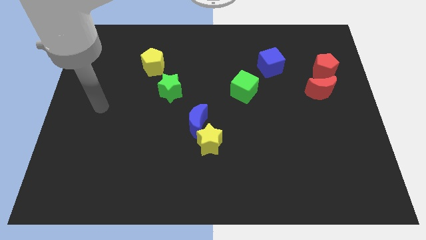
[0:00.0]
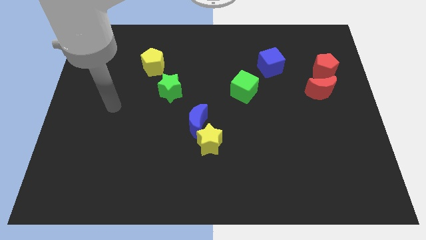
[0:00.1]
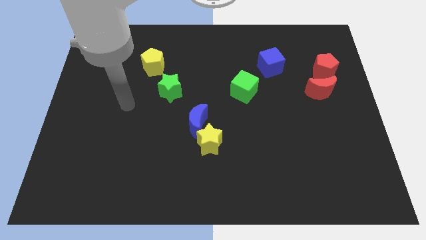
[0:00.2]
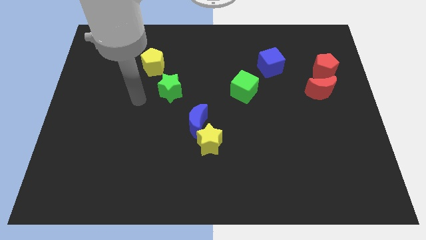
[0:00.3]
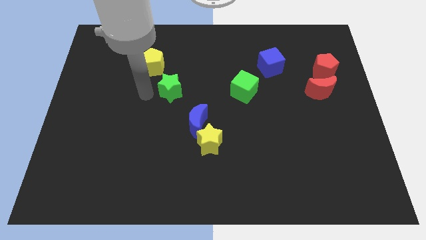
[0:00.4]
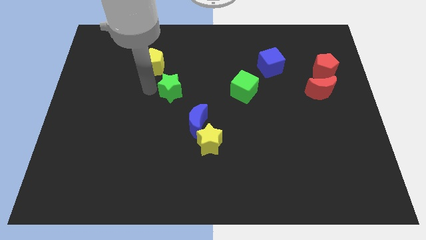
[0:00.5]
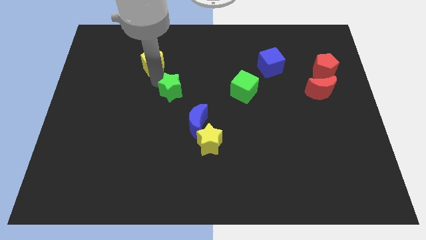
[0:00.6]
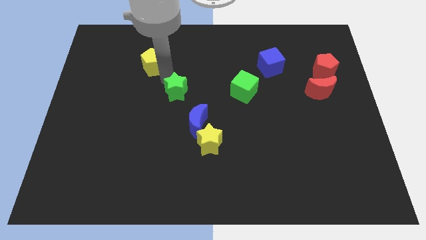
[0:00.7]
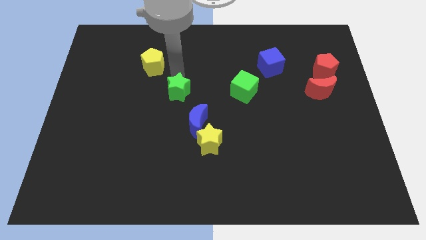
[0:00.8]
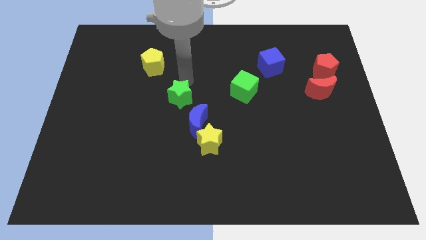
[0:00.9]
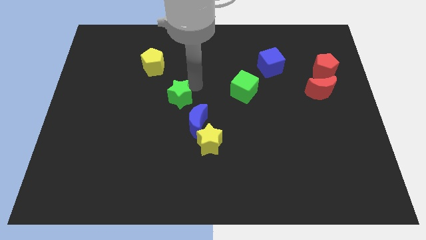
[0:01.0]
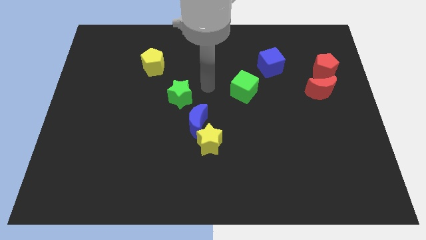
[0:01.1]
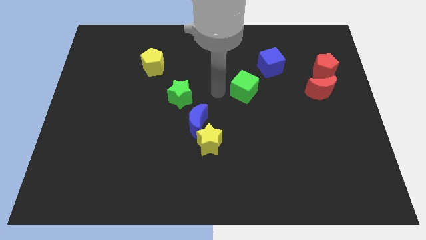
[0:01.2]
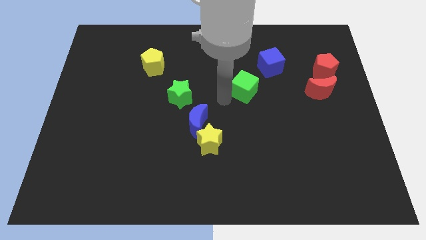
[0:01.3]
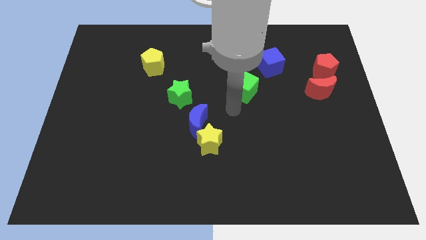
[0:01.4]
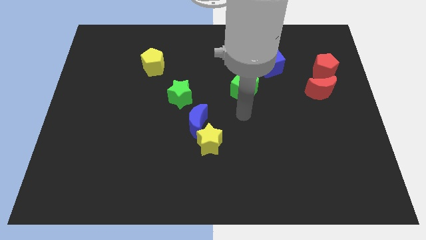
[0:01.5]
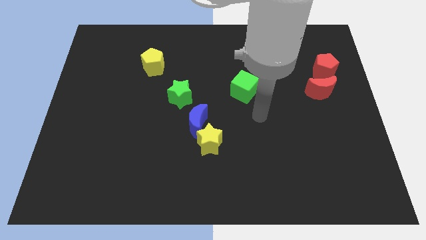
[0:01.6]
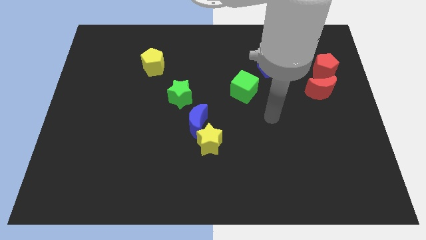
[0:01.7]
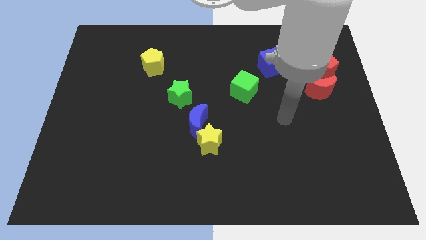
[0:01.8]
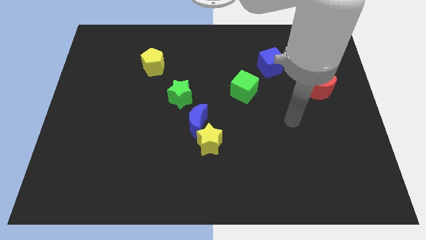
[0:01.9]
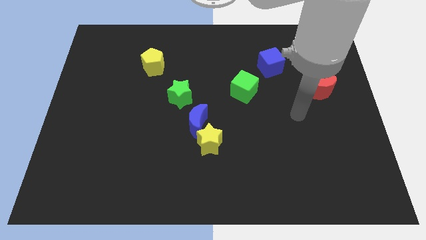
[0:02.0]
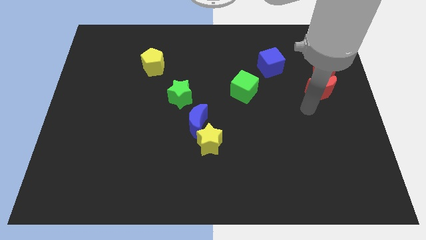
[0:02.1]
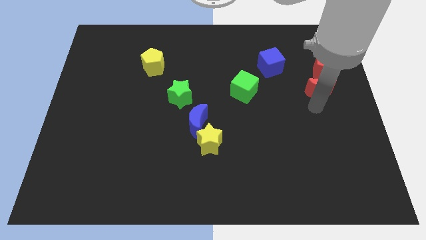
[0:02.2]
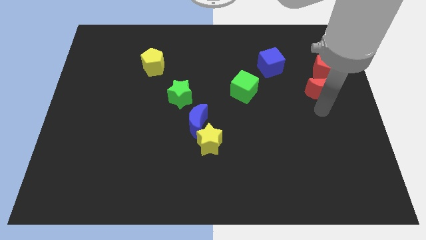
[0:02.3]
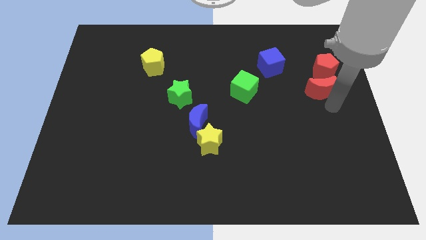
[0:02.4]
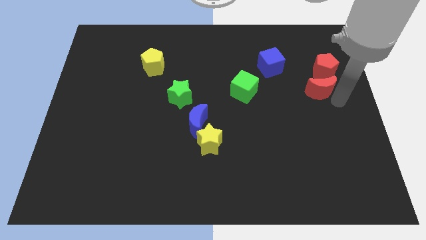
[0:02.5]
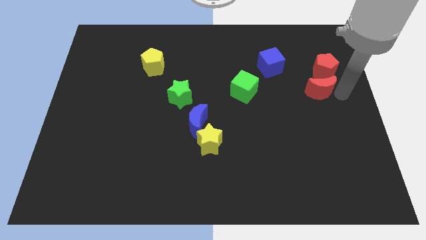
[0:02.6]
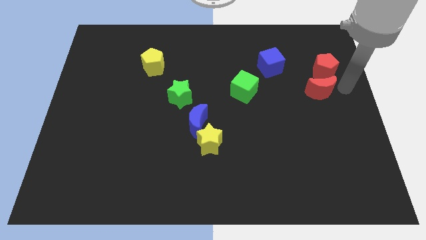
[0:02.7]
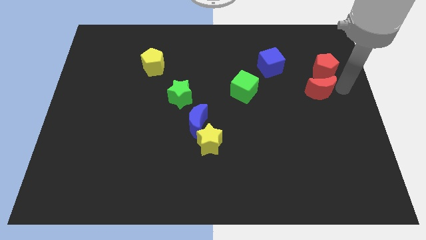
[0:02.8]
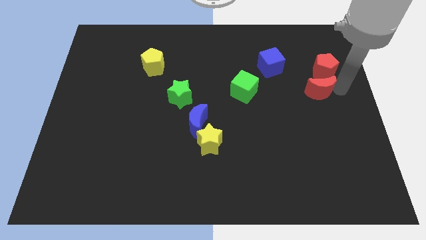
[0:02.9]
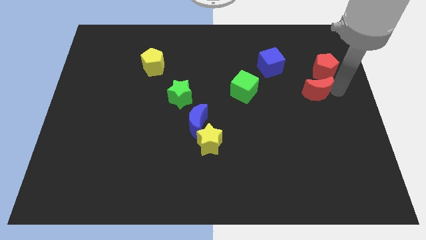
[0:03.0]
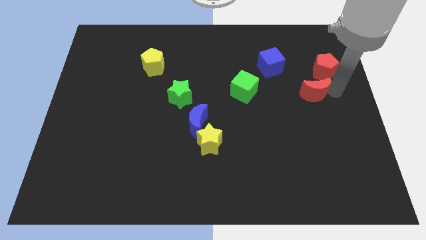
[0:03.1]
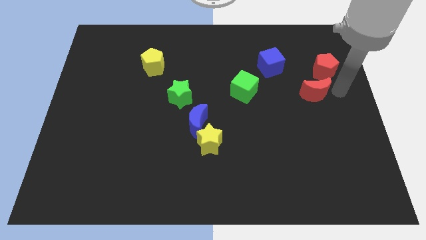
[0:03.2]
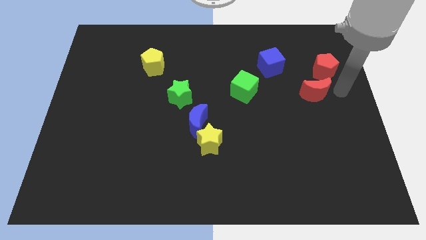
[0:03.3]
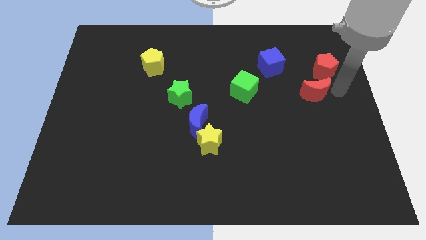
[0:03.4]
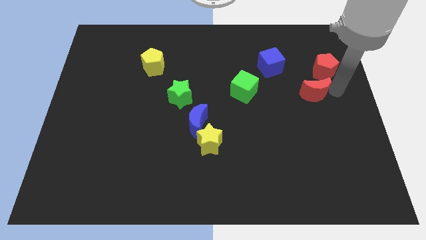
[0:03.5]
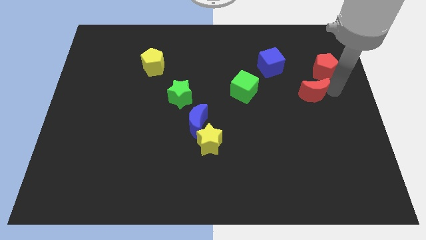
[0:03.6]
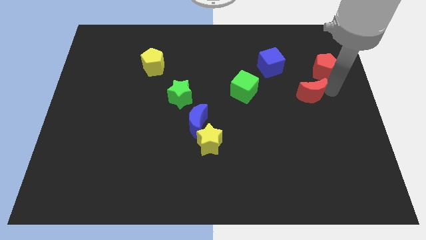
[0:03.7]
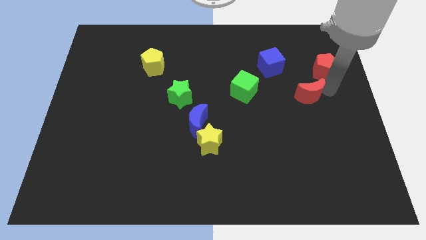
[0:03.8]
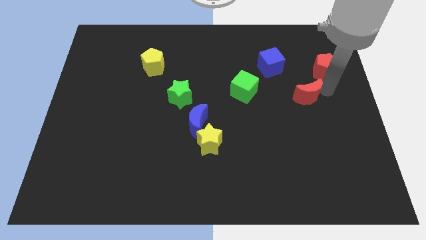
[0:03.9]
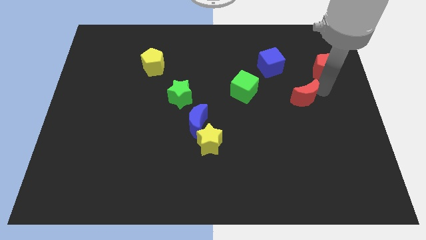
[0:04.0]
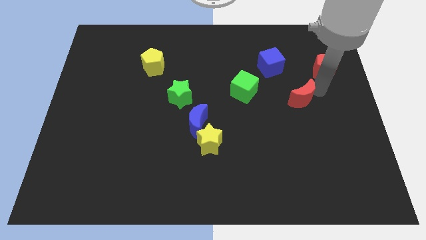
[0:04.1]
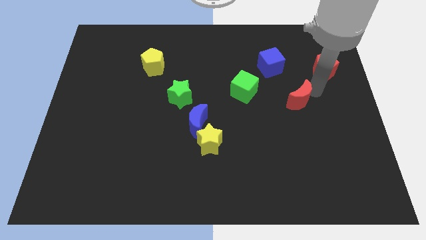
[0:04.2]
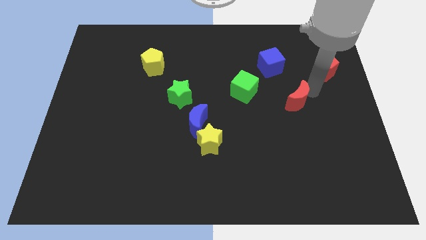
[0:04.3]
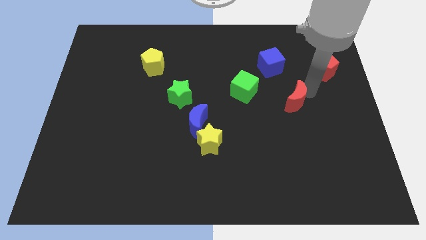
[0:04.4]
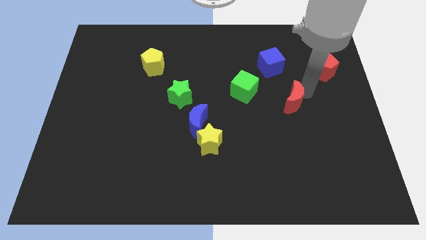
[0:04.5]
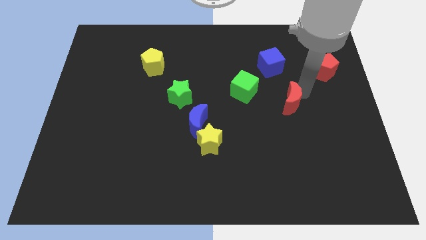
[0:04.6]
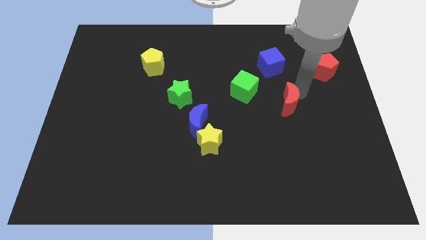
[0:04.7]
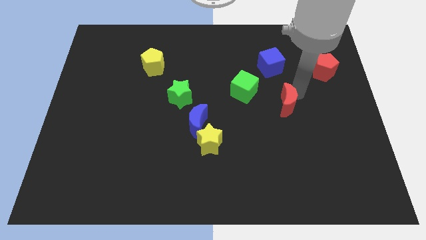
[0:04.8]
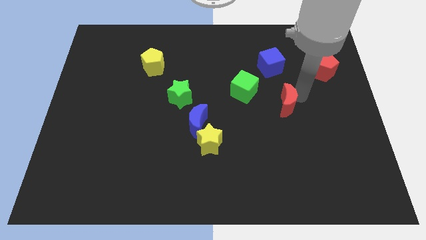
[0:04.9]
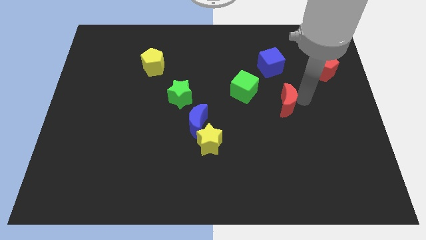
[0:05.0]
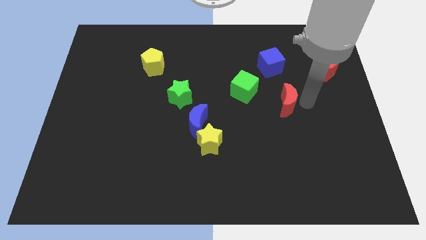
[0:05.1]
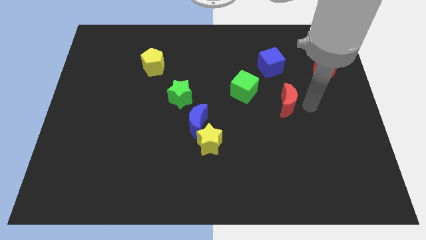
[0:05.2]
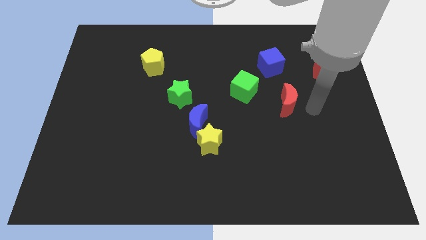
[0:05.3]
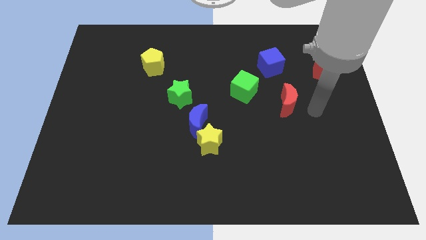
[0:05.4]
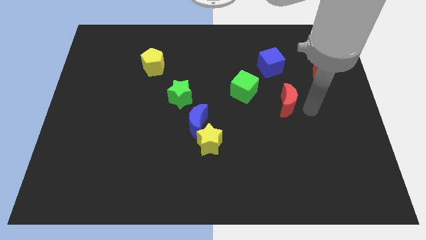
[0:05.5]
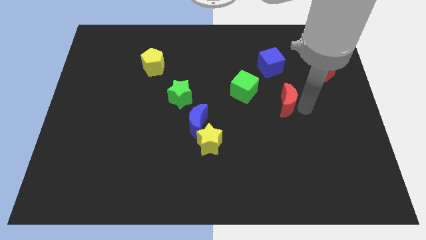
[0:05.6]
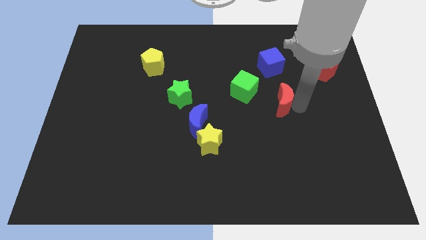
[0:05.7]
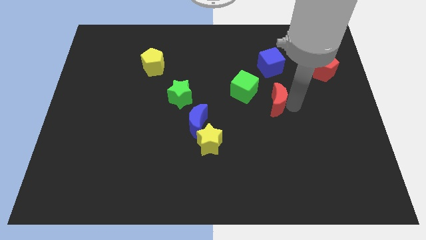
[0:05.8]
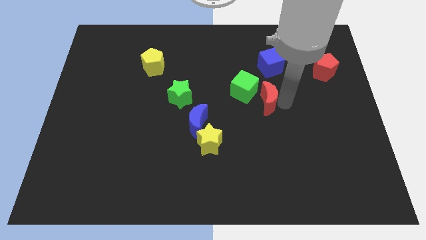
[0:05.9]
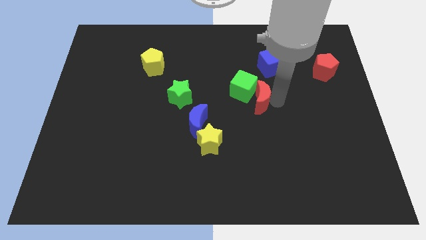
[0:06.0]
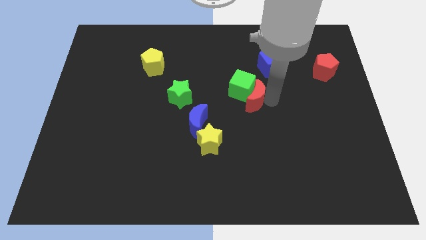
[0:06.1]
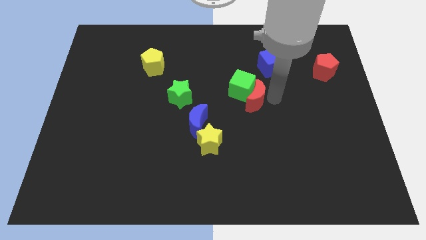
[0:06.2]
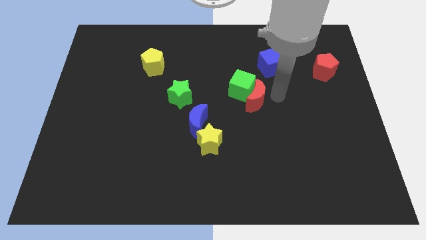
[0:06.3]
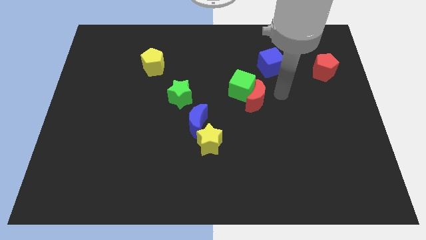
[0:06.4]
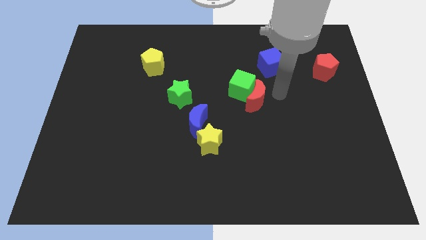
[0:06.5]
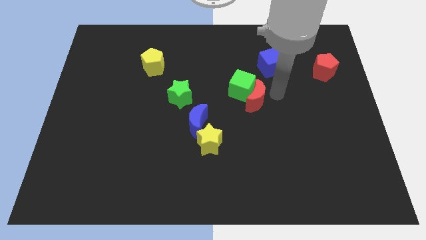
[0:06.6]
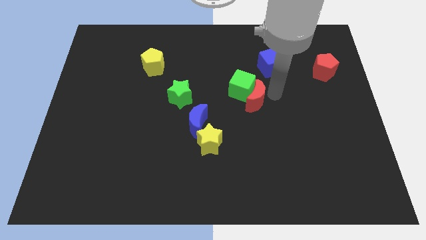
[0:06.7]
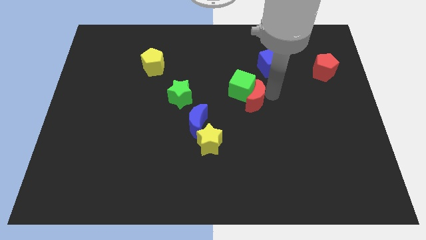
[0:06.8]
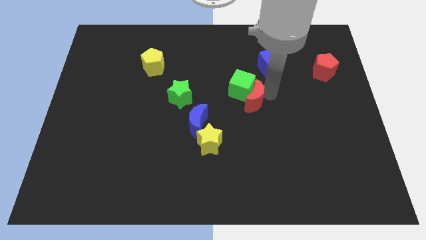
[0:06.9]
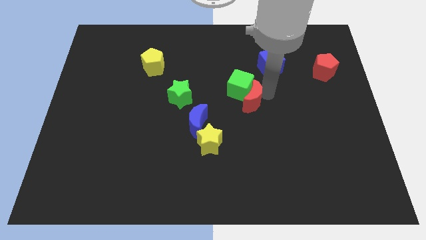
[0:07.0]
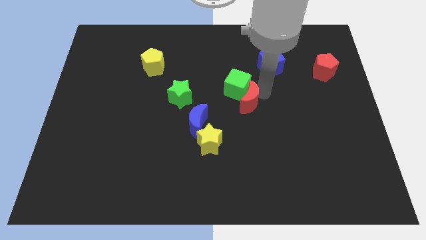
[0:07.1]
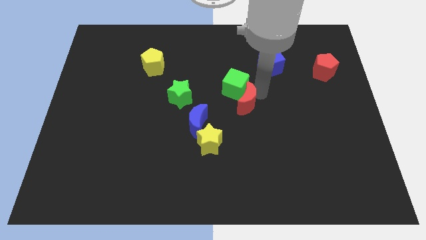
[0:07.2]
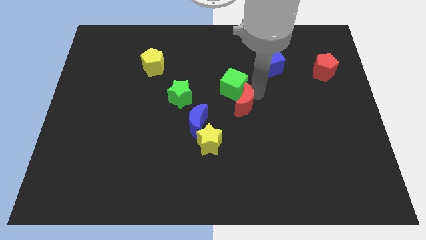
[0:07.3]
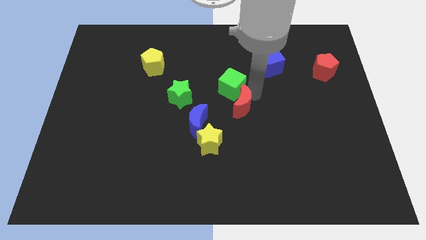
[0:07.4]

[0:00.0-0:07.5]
push the red moon to the top right side of the blue moon
